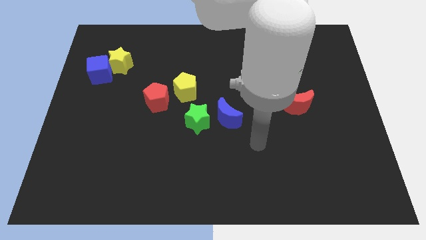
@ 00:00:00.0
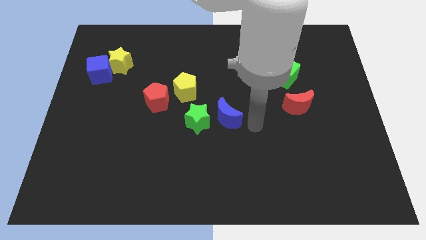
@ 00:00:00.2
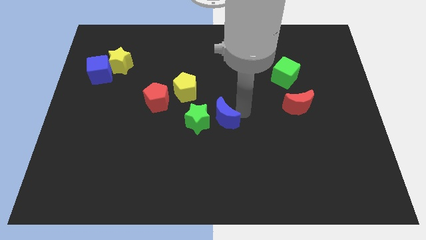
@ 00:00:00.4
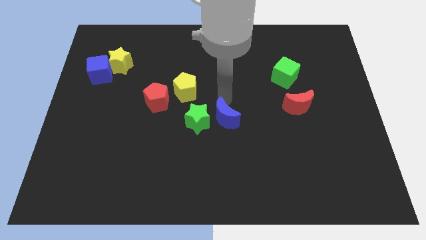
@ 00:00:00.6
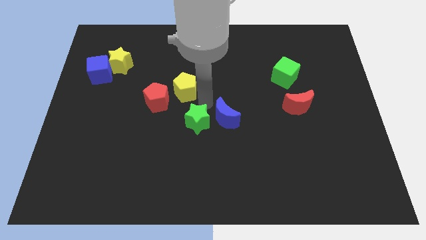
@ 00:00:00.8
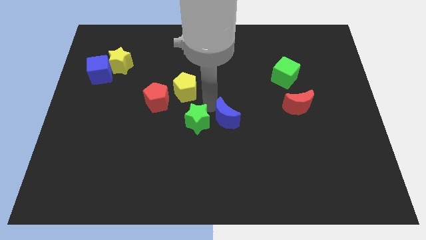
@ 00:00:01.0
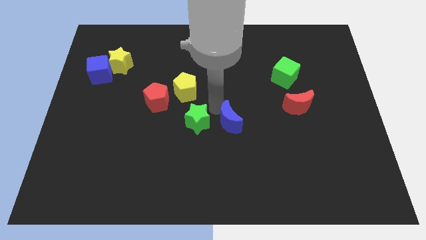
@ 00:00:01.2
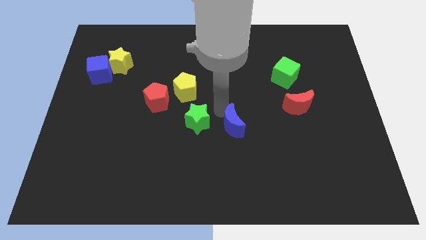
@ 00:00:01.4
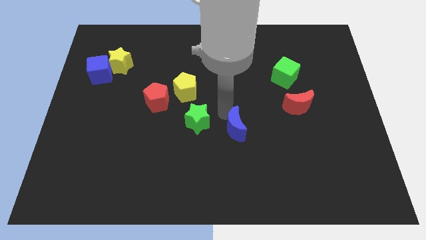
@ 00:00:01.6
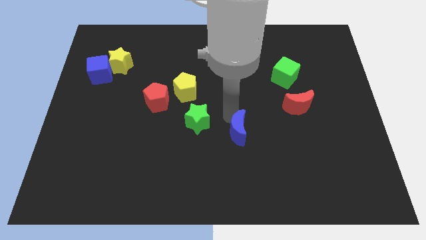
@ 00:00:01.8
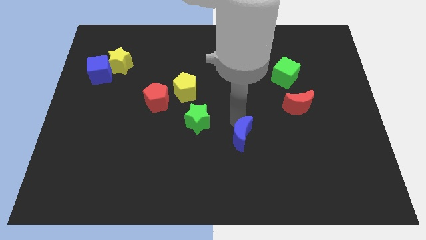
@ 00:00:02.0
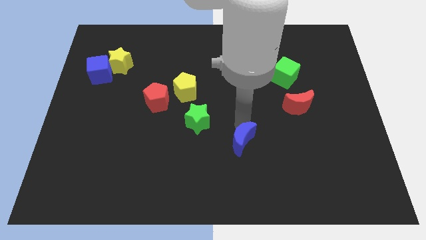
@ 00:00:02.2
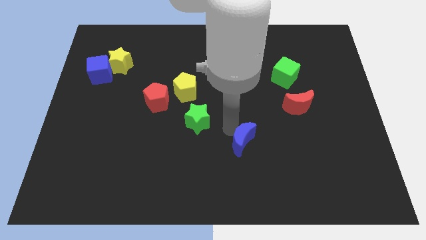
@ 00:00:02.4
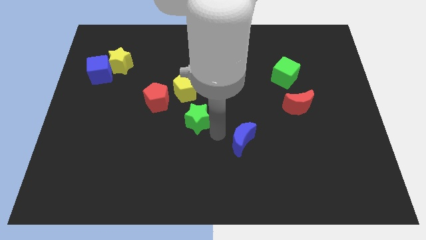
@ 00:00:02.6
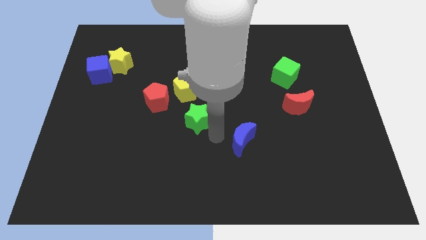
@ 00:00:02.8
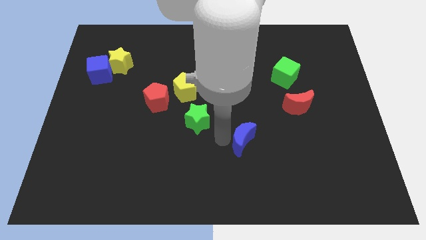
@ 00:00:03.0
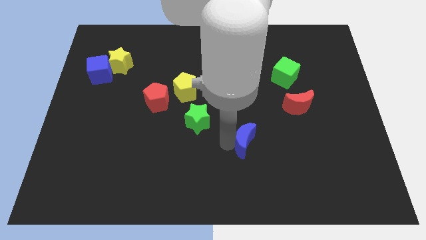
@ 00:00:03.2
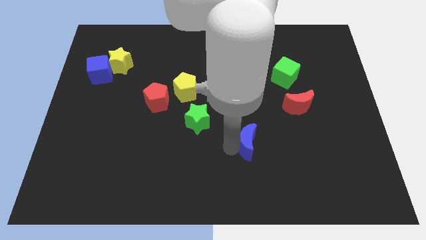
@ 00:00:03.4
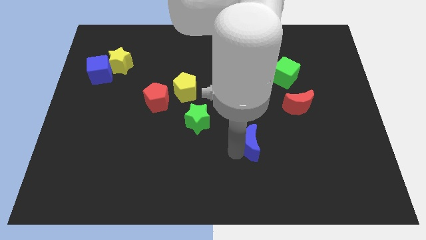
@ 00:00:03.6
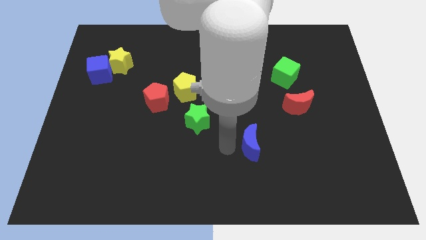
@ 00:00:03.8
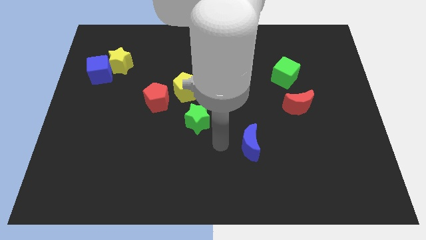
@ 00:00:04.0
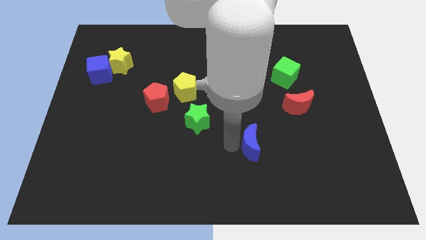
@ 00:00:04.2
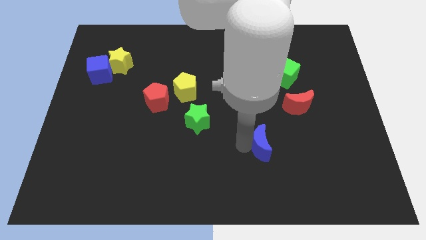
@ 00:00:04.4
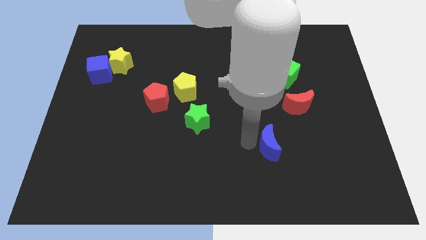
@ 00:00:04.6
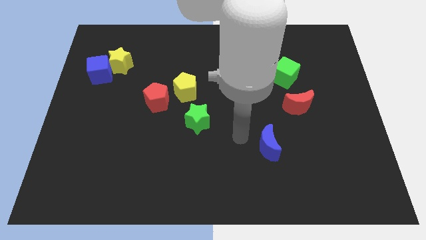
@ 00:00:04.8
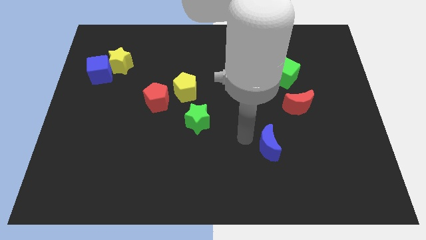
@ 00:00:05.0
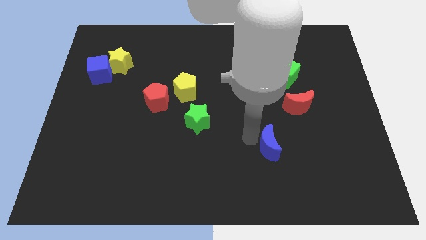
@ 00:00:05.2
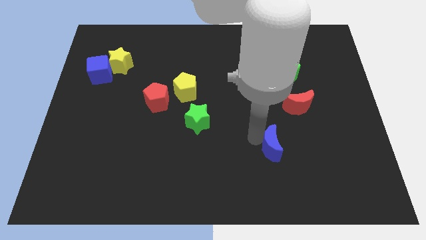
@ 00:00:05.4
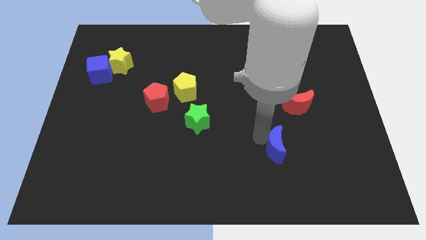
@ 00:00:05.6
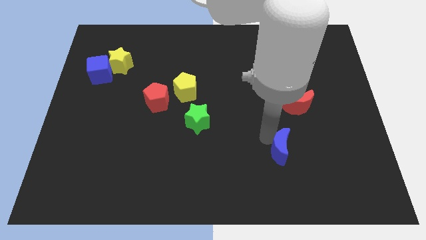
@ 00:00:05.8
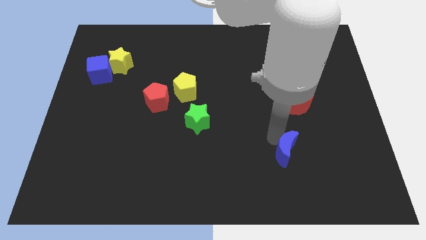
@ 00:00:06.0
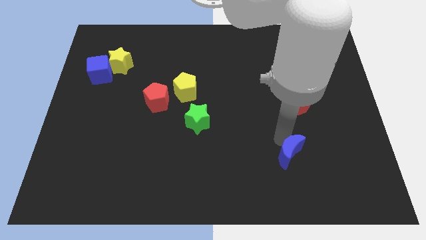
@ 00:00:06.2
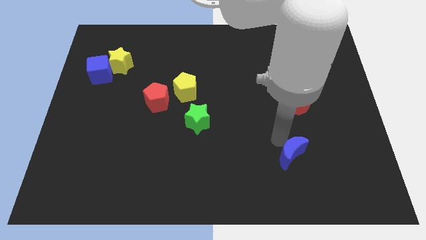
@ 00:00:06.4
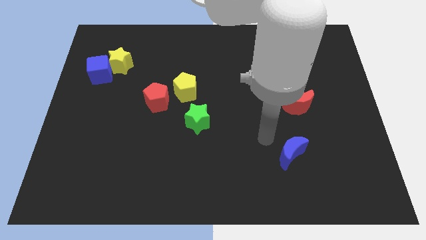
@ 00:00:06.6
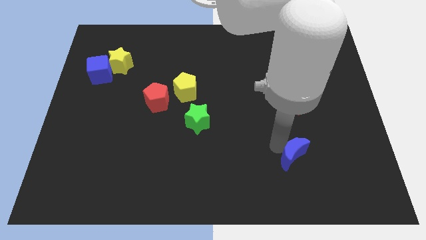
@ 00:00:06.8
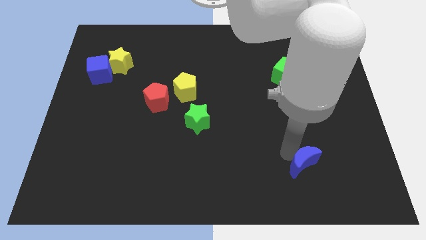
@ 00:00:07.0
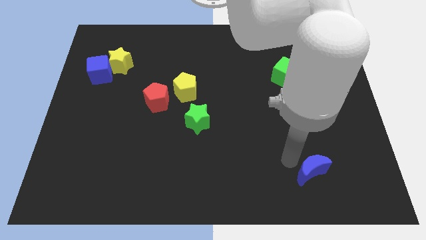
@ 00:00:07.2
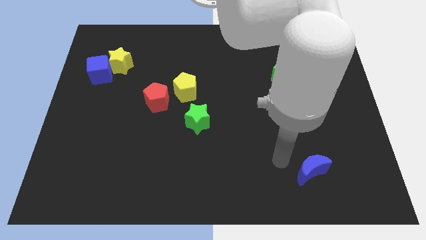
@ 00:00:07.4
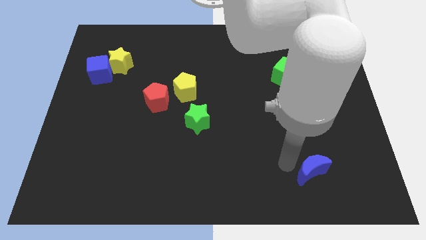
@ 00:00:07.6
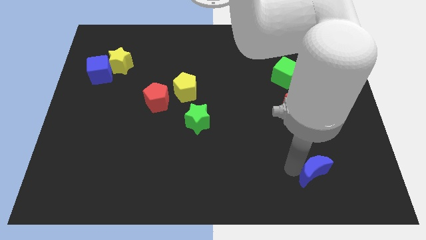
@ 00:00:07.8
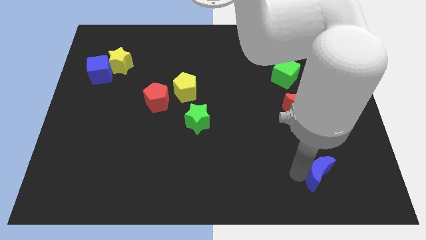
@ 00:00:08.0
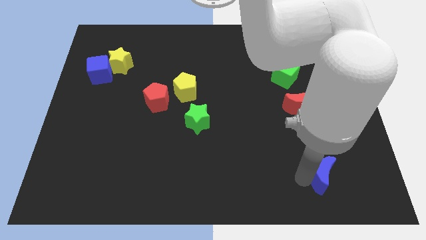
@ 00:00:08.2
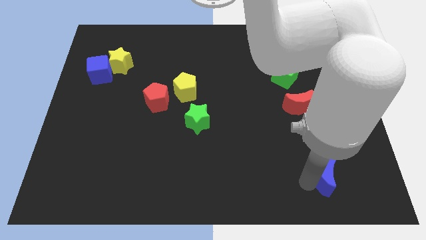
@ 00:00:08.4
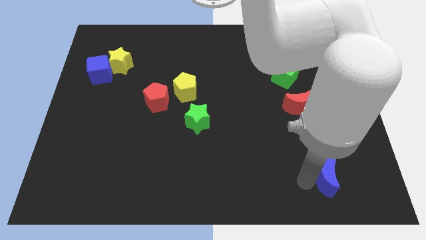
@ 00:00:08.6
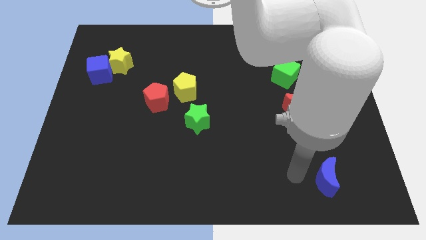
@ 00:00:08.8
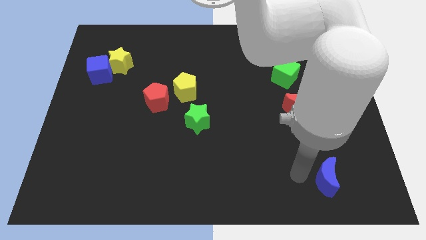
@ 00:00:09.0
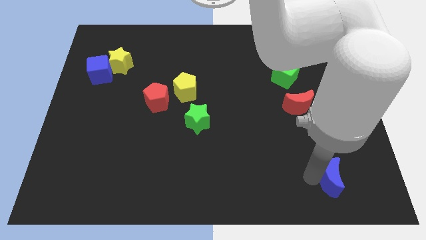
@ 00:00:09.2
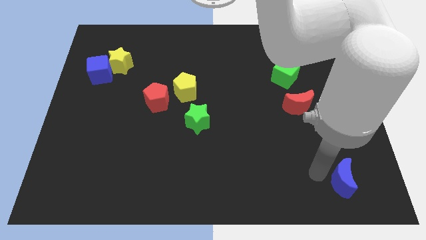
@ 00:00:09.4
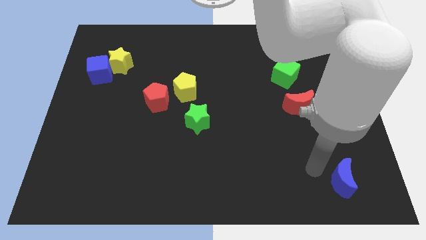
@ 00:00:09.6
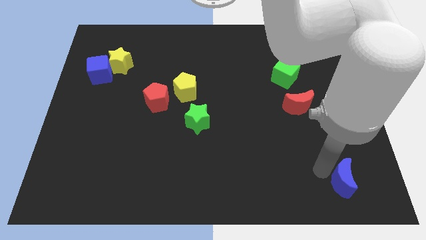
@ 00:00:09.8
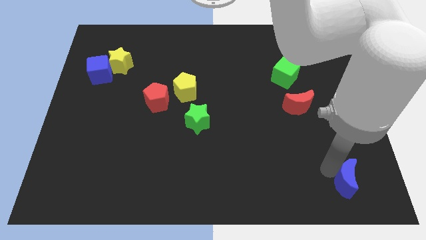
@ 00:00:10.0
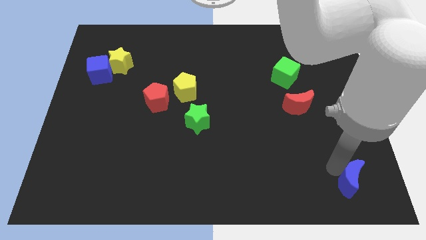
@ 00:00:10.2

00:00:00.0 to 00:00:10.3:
put the blue moon to the lower right corner
